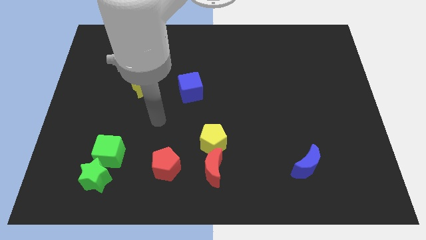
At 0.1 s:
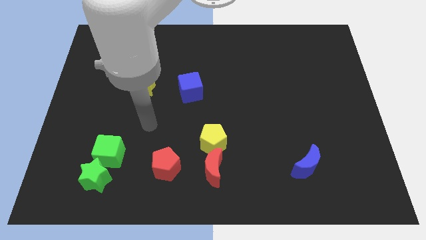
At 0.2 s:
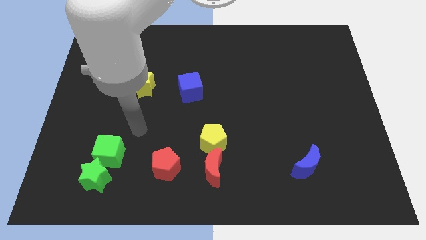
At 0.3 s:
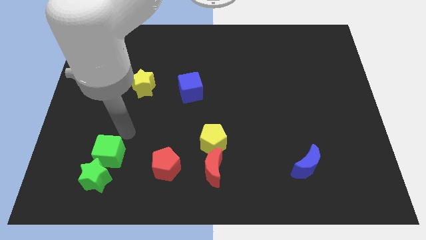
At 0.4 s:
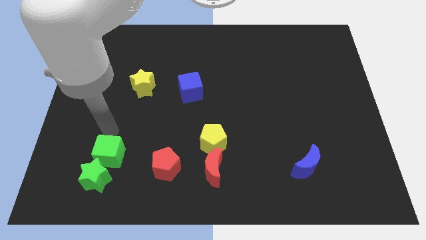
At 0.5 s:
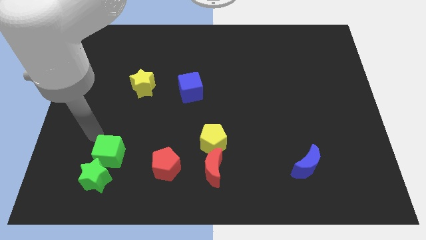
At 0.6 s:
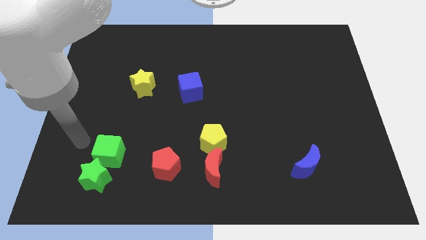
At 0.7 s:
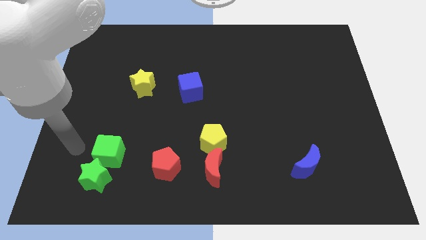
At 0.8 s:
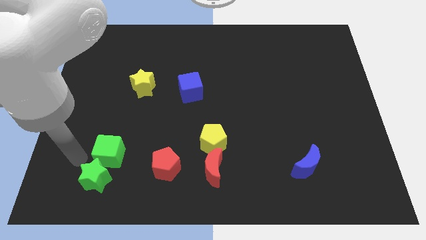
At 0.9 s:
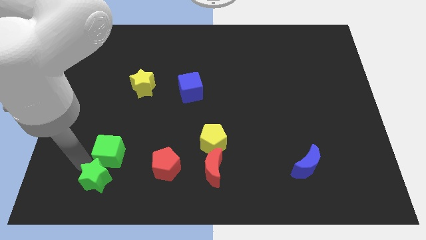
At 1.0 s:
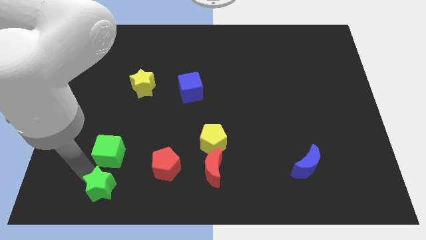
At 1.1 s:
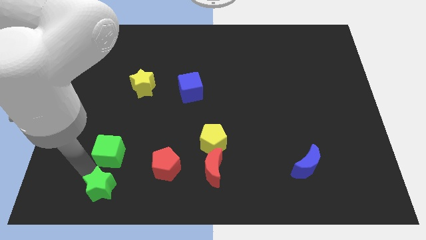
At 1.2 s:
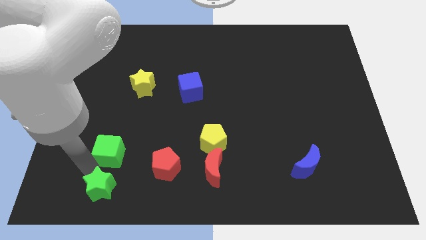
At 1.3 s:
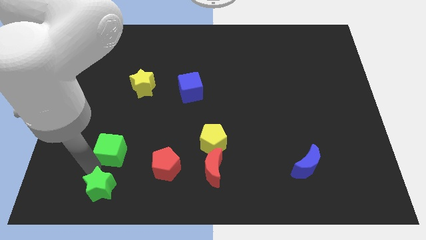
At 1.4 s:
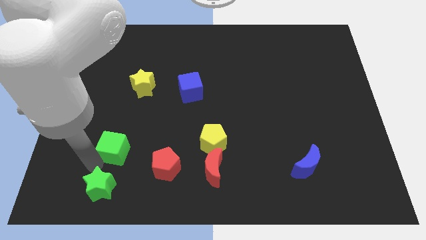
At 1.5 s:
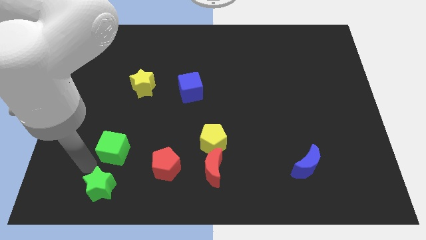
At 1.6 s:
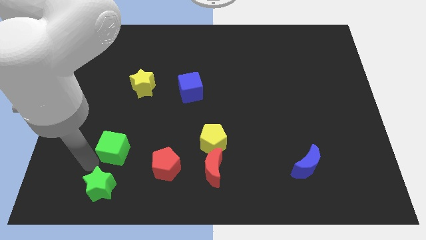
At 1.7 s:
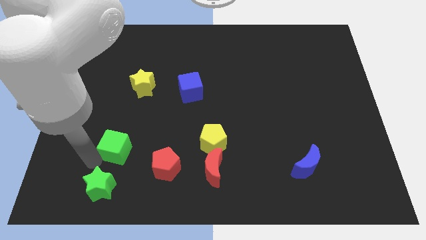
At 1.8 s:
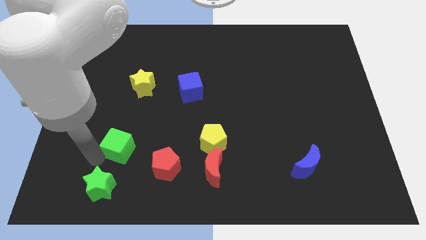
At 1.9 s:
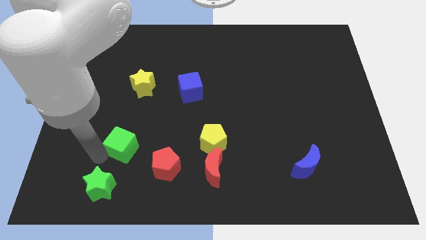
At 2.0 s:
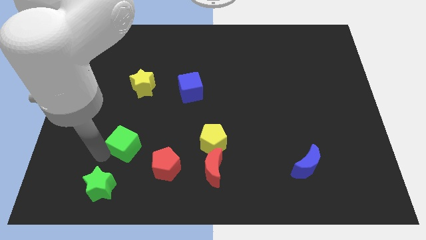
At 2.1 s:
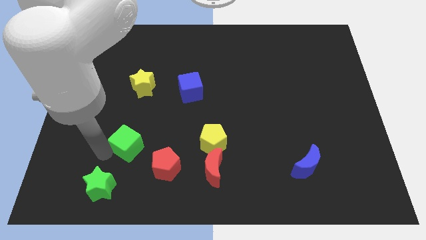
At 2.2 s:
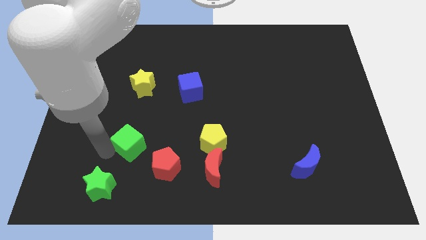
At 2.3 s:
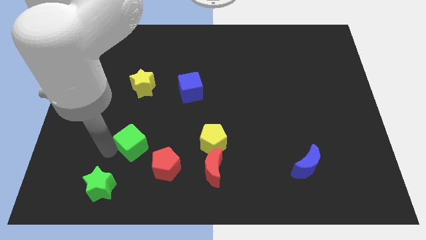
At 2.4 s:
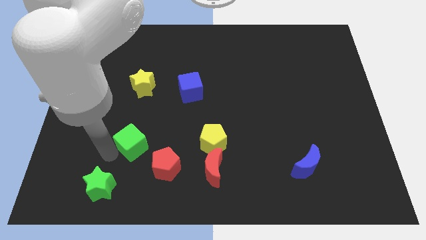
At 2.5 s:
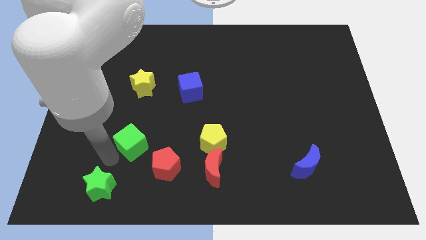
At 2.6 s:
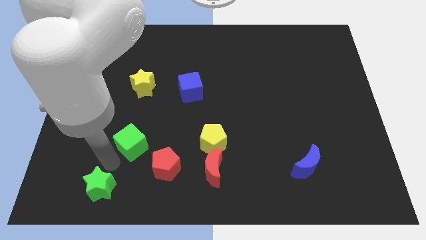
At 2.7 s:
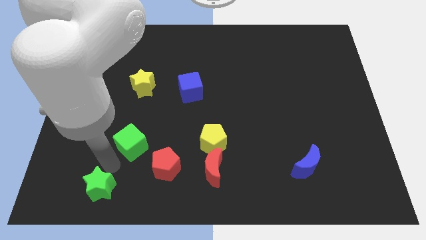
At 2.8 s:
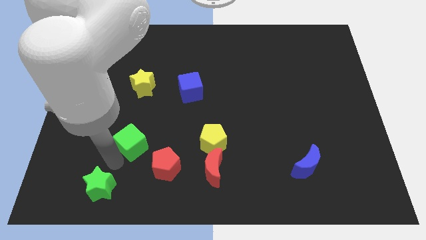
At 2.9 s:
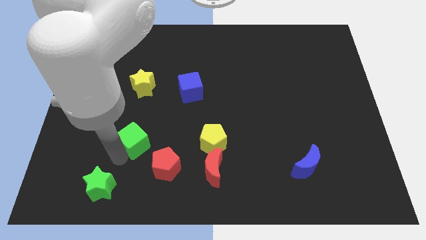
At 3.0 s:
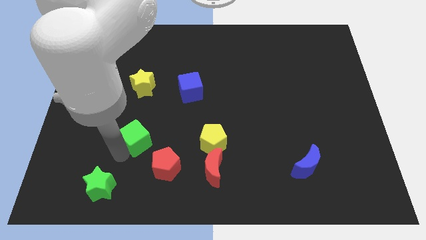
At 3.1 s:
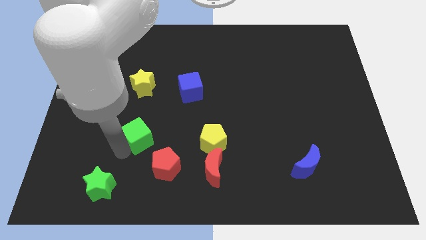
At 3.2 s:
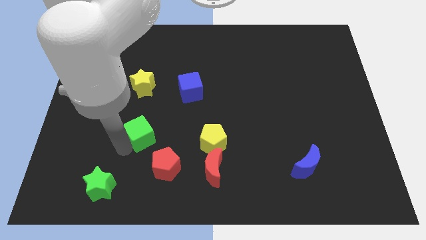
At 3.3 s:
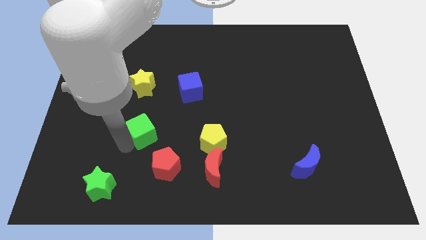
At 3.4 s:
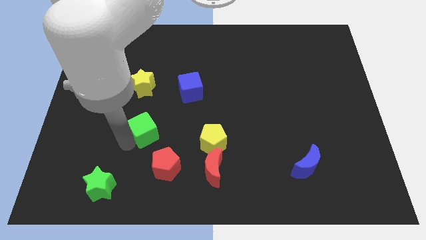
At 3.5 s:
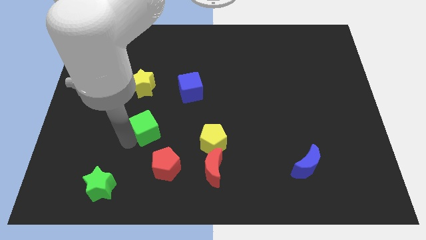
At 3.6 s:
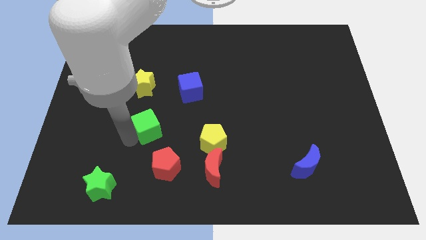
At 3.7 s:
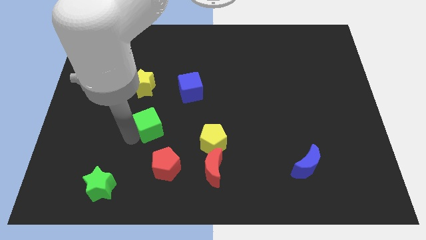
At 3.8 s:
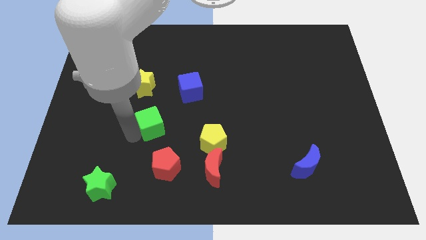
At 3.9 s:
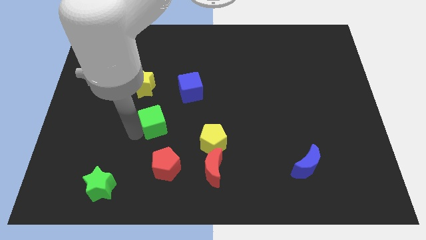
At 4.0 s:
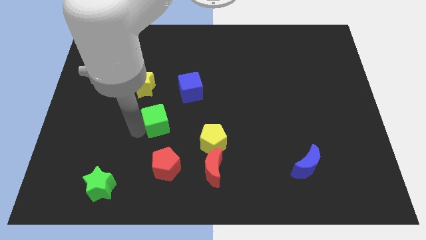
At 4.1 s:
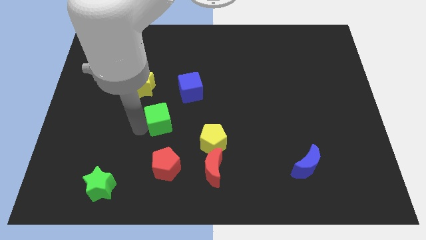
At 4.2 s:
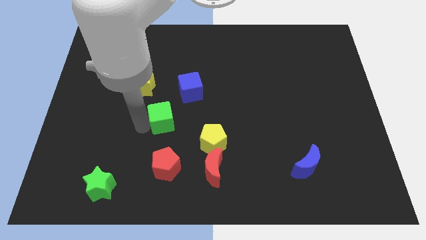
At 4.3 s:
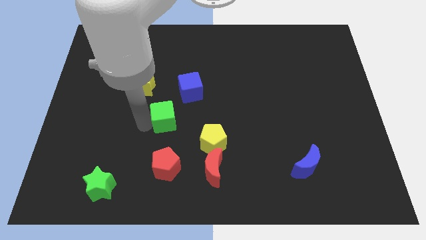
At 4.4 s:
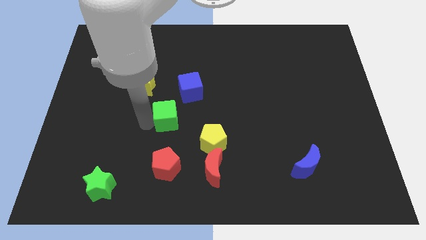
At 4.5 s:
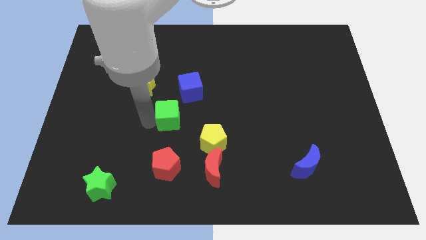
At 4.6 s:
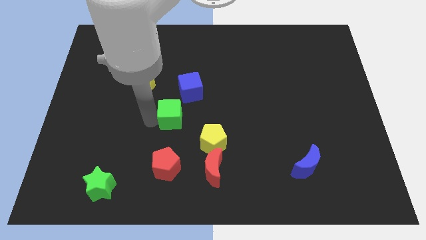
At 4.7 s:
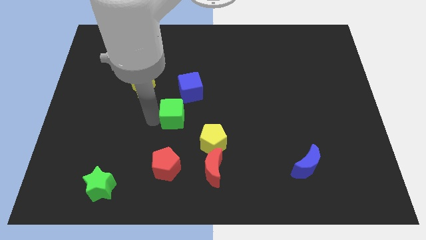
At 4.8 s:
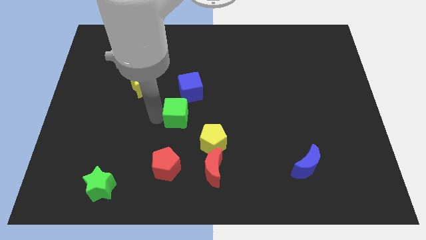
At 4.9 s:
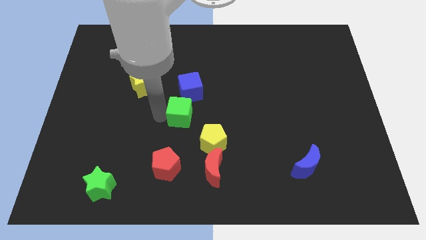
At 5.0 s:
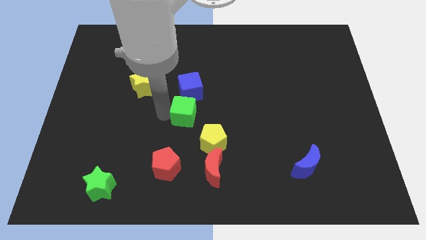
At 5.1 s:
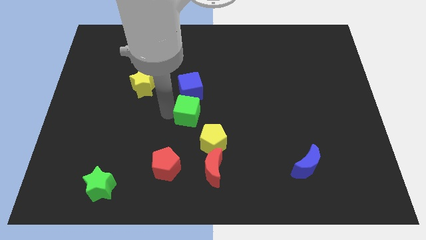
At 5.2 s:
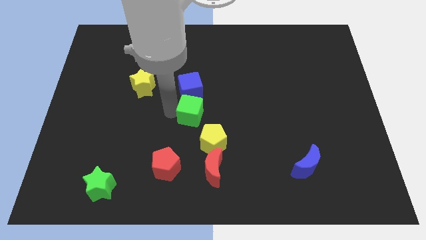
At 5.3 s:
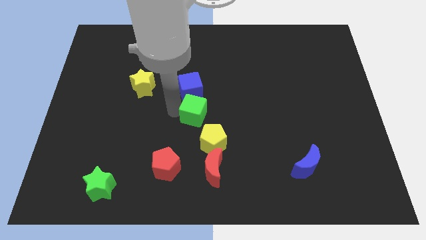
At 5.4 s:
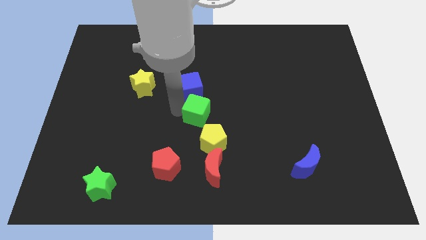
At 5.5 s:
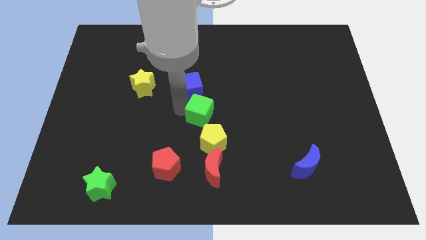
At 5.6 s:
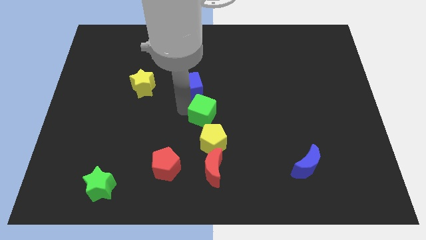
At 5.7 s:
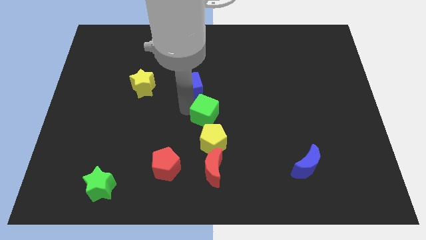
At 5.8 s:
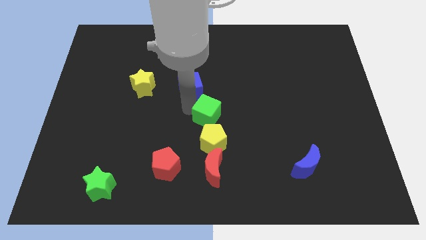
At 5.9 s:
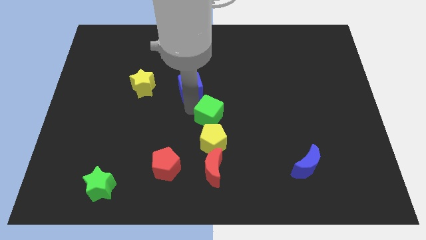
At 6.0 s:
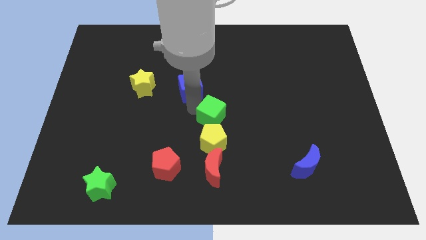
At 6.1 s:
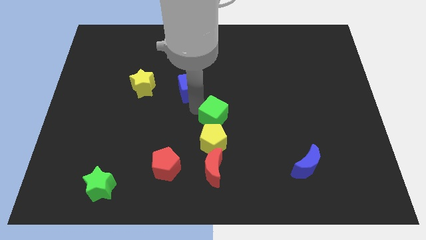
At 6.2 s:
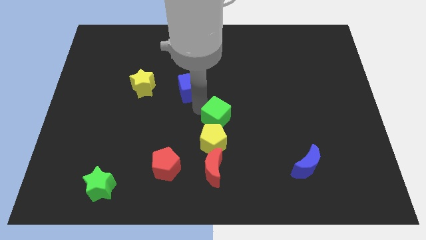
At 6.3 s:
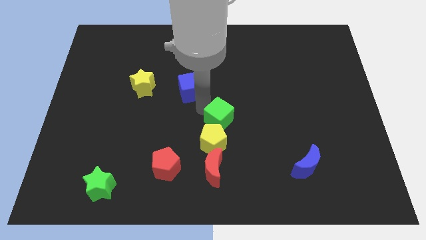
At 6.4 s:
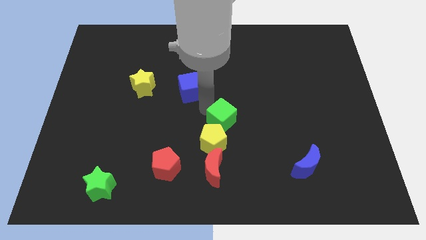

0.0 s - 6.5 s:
move the green cube right

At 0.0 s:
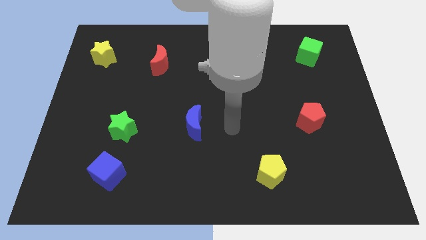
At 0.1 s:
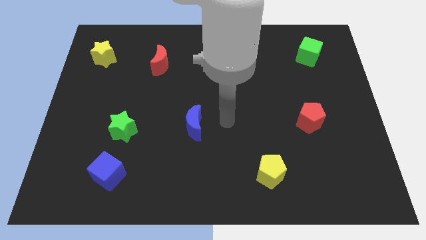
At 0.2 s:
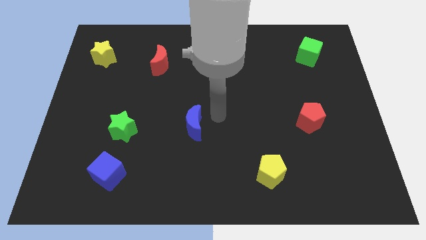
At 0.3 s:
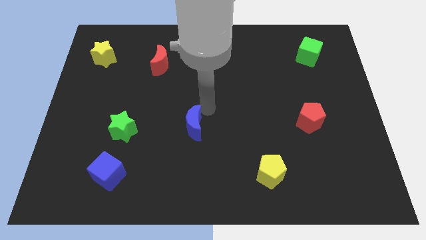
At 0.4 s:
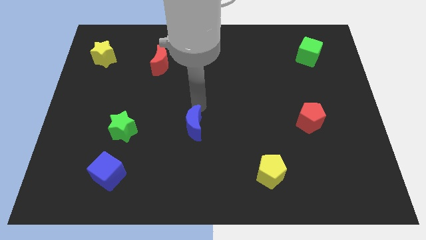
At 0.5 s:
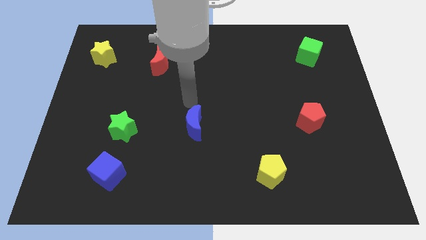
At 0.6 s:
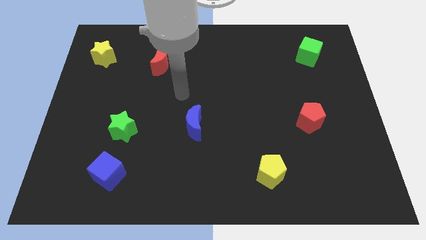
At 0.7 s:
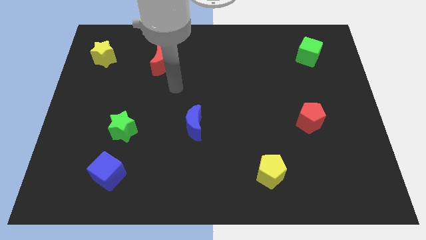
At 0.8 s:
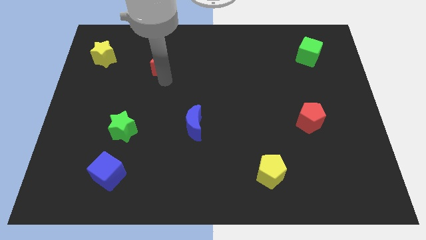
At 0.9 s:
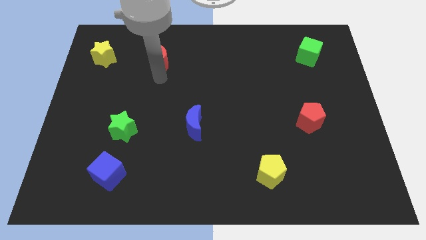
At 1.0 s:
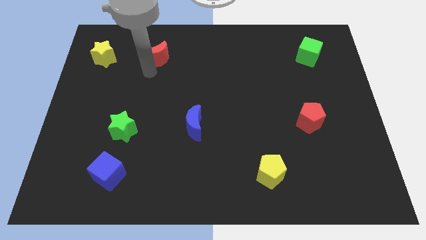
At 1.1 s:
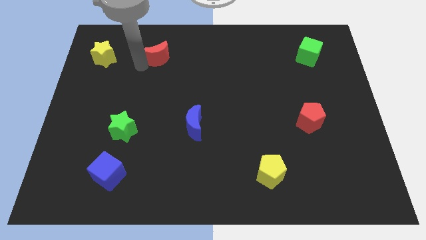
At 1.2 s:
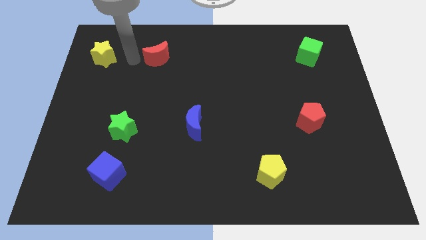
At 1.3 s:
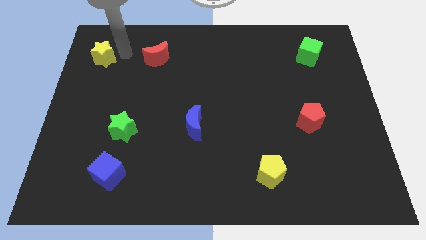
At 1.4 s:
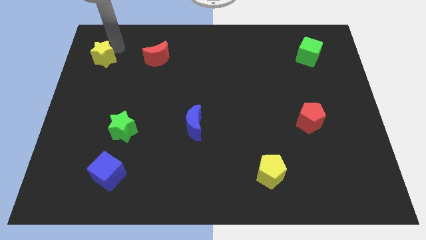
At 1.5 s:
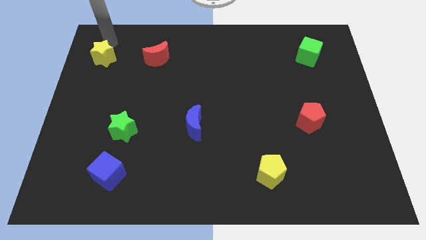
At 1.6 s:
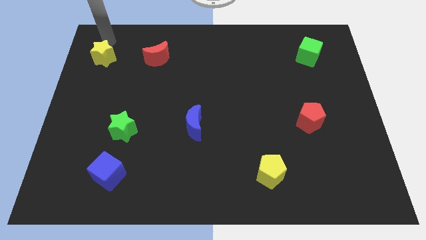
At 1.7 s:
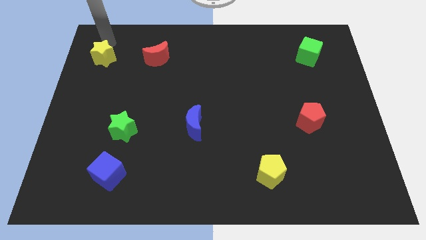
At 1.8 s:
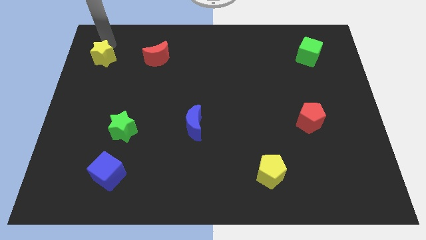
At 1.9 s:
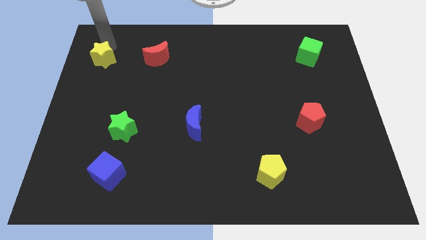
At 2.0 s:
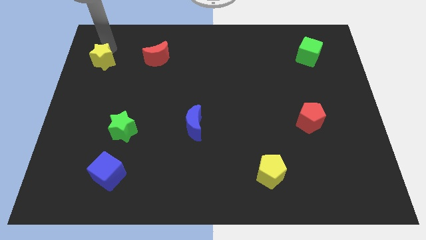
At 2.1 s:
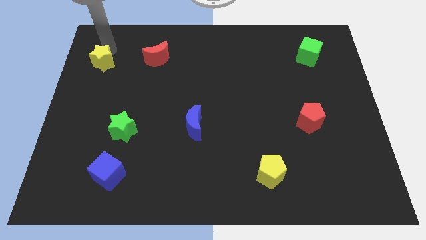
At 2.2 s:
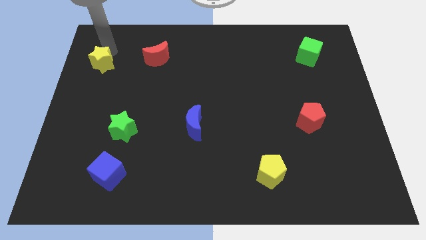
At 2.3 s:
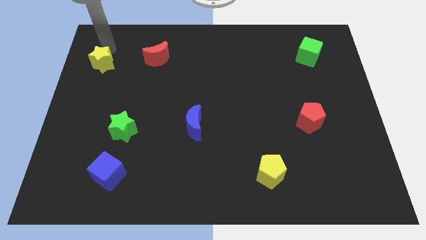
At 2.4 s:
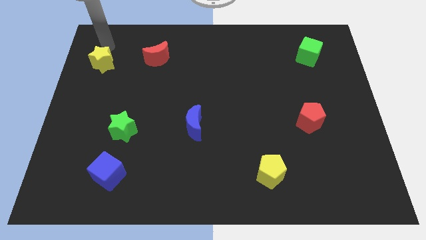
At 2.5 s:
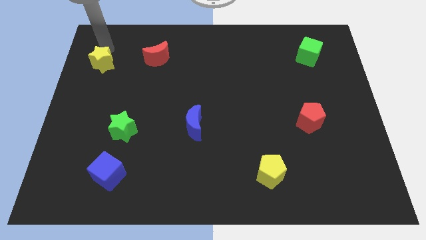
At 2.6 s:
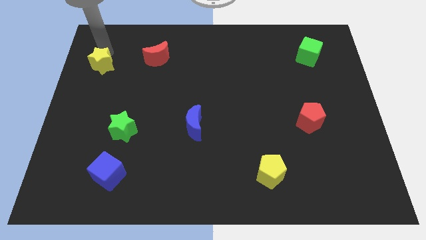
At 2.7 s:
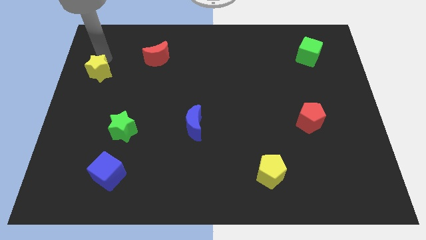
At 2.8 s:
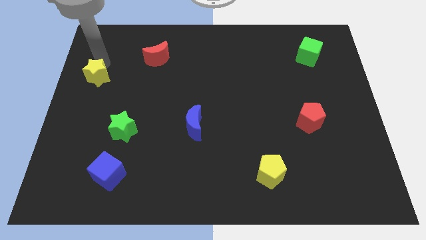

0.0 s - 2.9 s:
slightly slide the yellow star downwards
